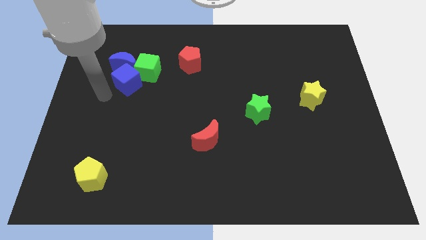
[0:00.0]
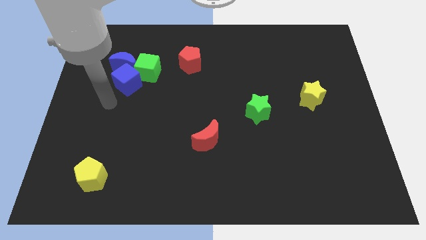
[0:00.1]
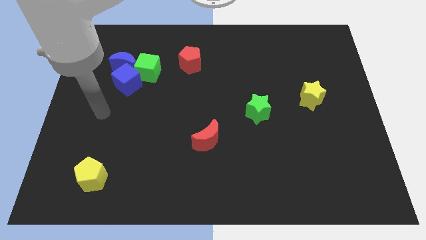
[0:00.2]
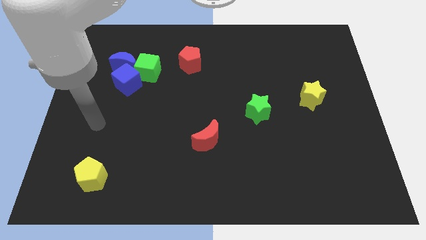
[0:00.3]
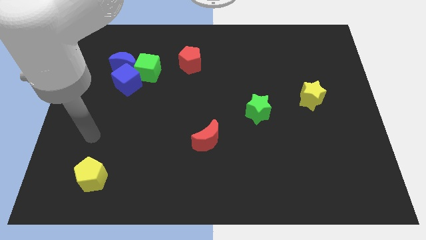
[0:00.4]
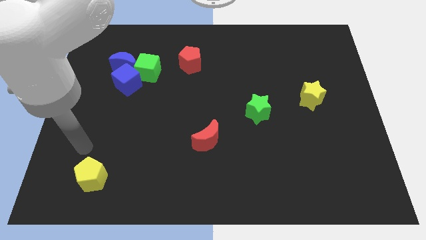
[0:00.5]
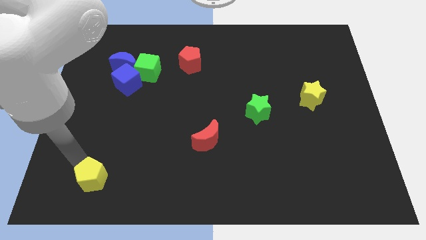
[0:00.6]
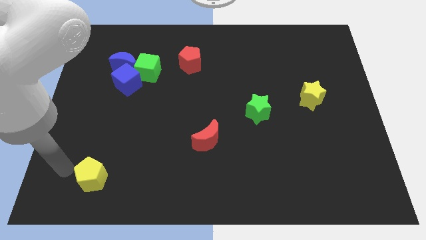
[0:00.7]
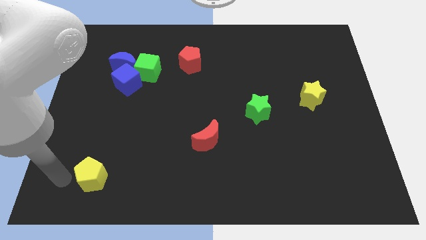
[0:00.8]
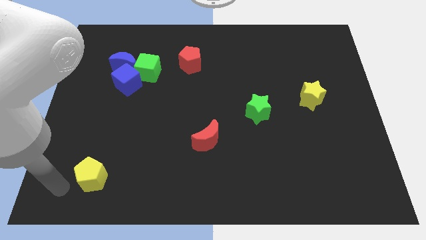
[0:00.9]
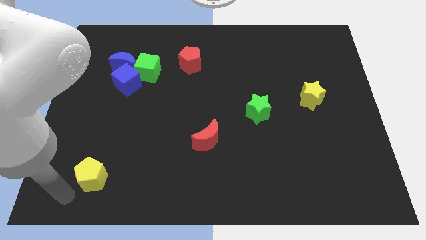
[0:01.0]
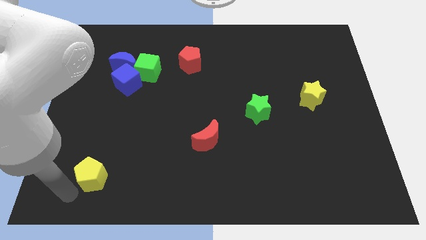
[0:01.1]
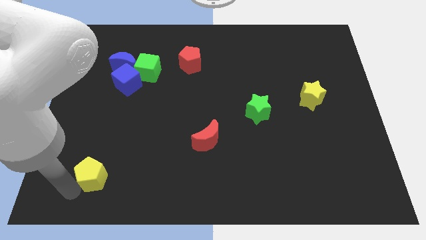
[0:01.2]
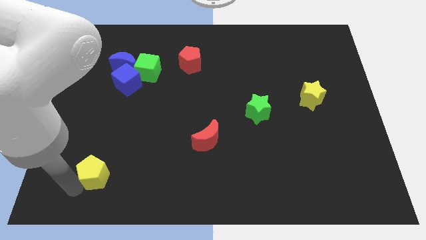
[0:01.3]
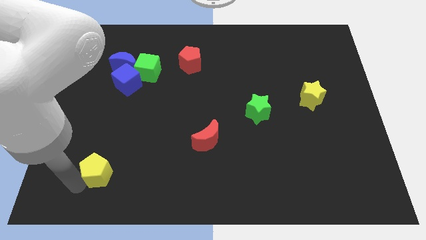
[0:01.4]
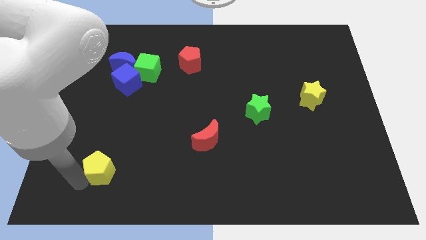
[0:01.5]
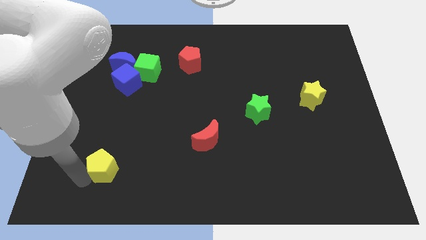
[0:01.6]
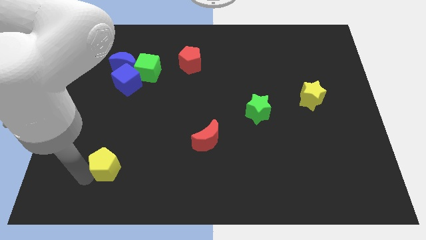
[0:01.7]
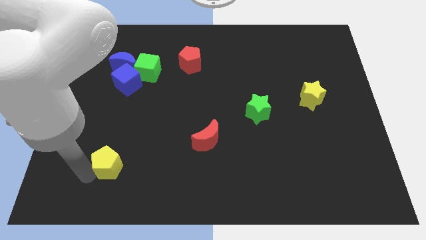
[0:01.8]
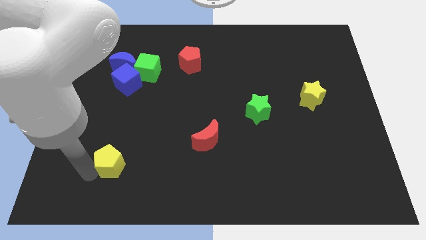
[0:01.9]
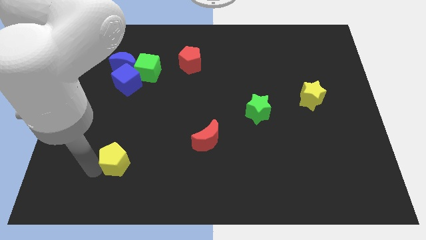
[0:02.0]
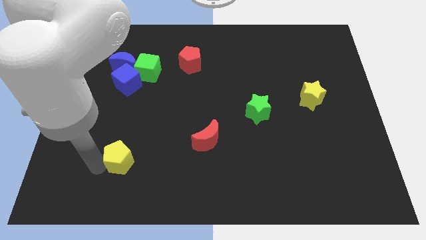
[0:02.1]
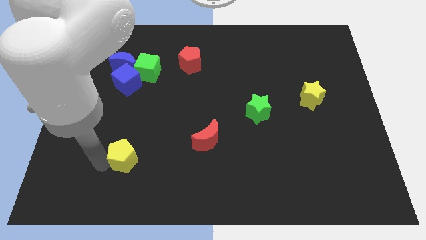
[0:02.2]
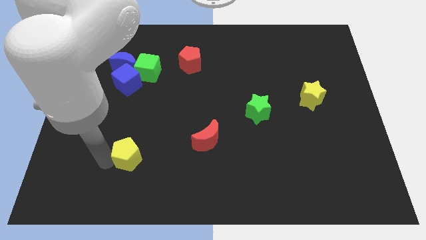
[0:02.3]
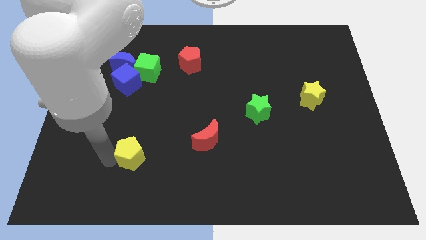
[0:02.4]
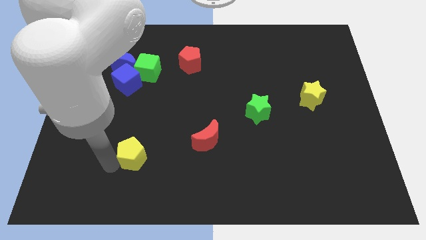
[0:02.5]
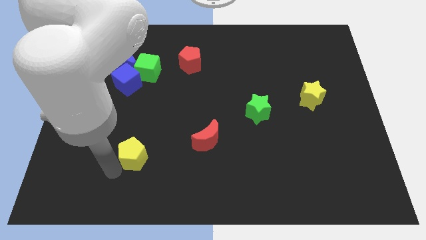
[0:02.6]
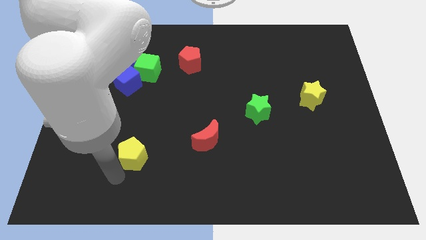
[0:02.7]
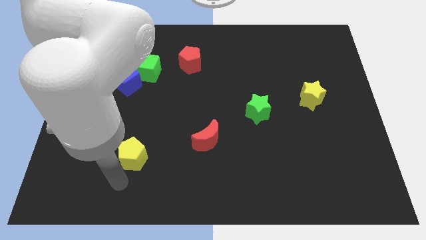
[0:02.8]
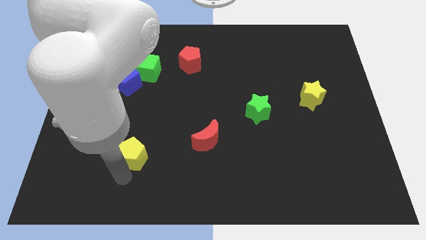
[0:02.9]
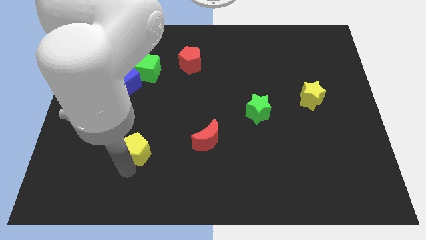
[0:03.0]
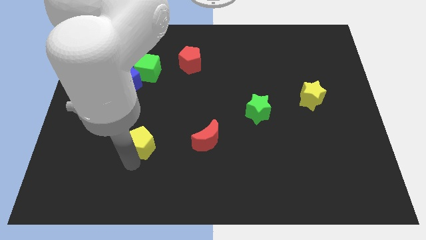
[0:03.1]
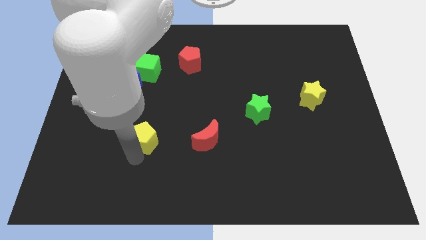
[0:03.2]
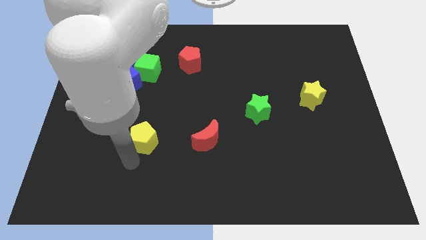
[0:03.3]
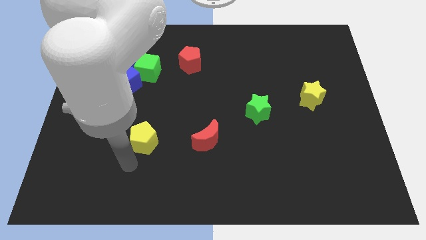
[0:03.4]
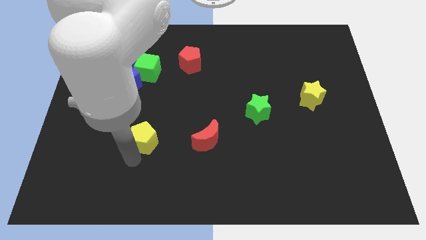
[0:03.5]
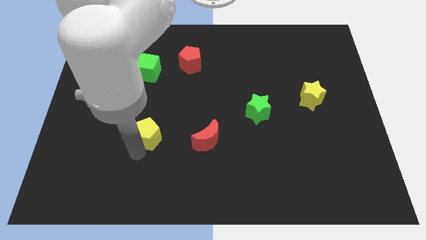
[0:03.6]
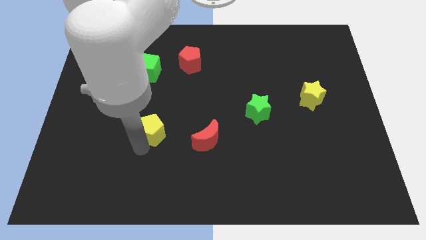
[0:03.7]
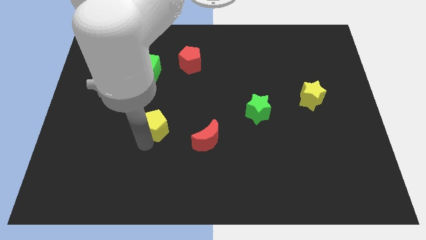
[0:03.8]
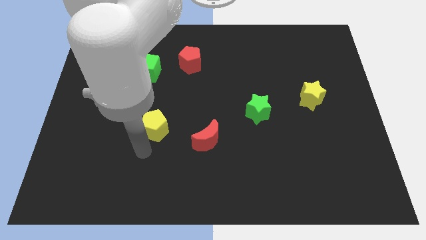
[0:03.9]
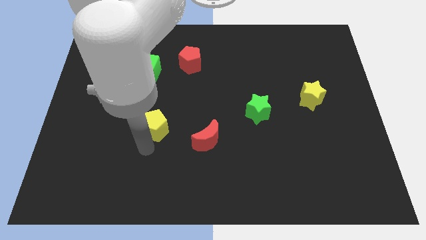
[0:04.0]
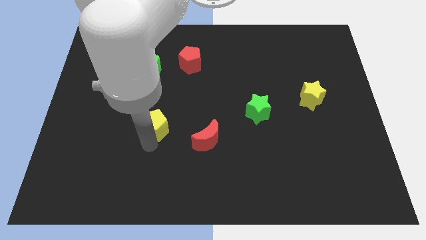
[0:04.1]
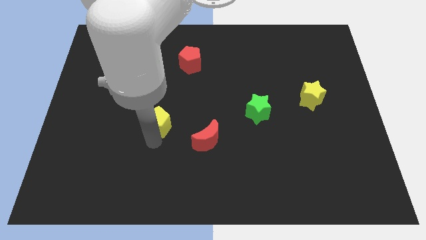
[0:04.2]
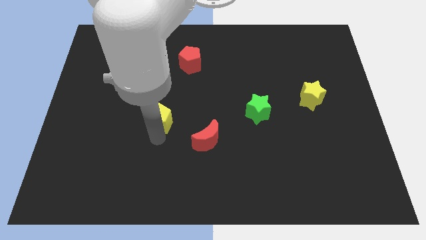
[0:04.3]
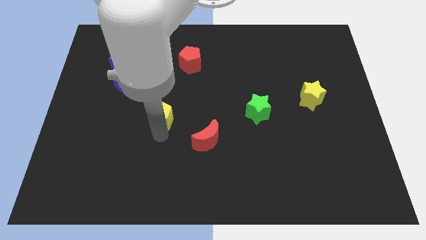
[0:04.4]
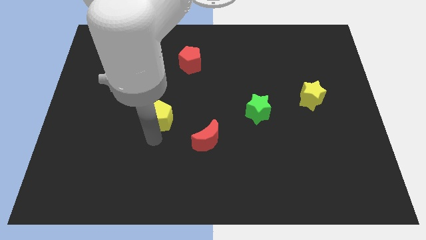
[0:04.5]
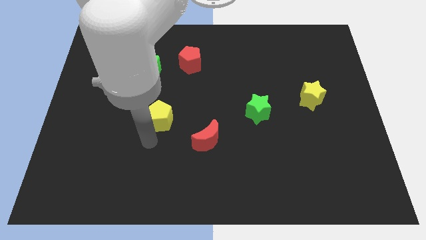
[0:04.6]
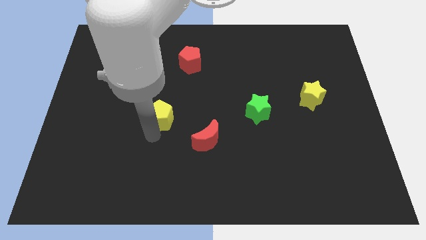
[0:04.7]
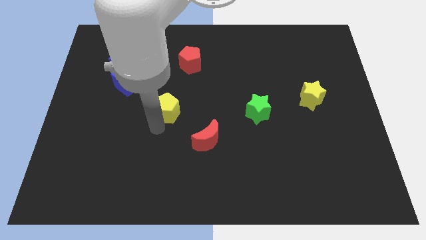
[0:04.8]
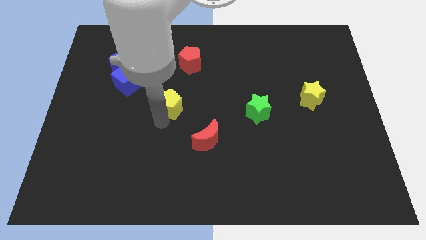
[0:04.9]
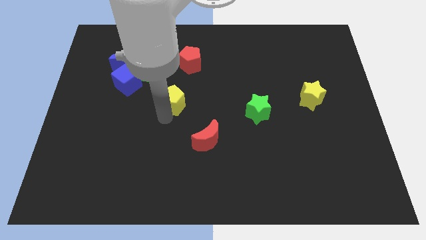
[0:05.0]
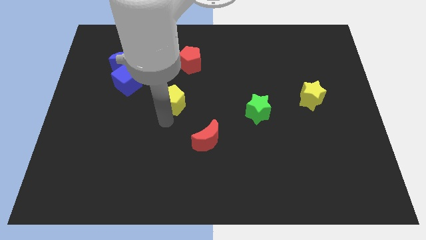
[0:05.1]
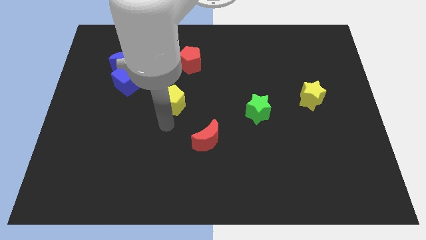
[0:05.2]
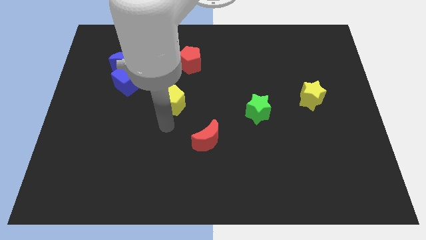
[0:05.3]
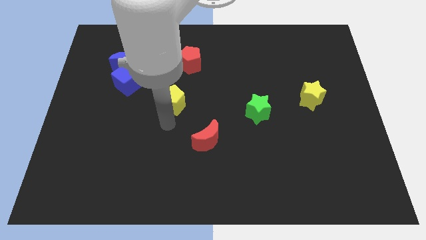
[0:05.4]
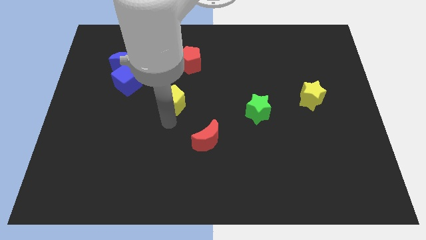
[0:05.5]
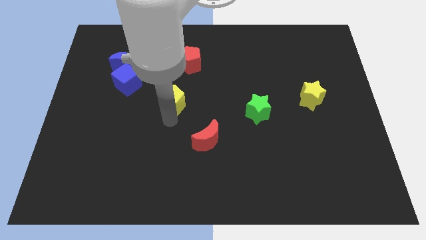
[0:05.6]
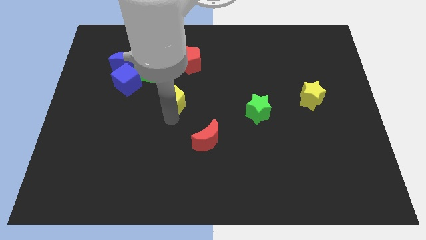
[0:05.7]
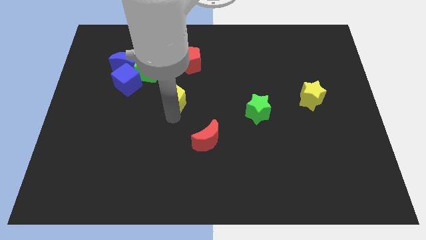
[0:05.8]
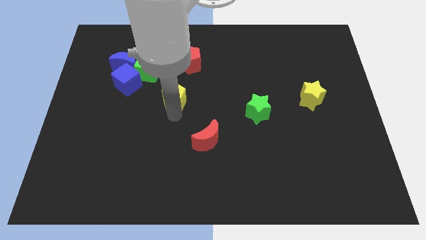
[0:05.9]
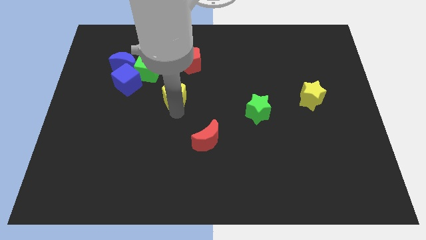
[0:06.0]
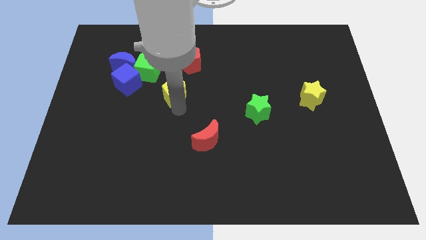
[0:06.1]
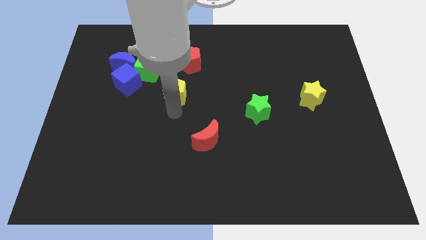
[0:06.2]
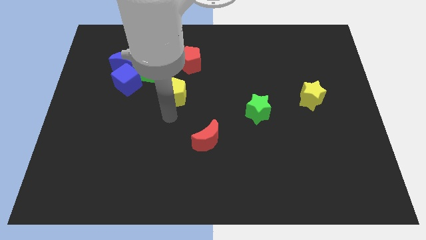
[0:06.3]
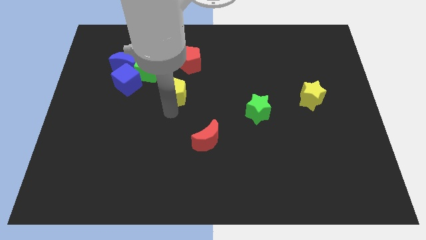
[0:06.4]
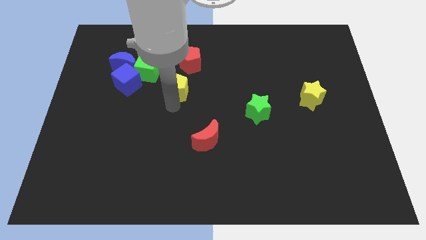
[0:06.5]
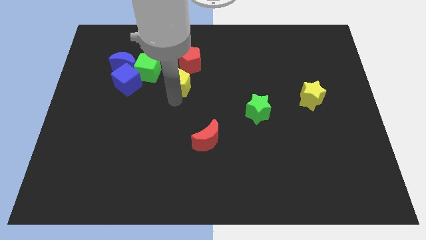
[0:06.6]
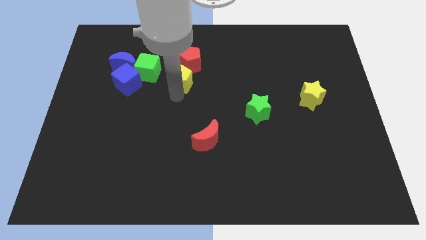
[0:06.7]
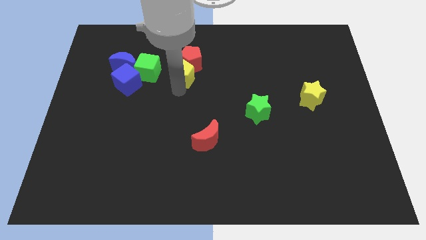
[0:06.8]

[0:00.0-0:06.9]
slide the yellow pentagon next to the red pentagon
